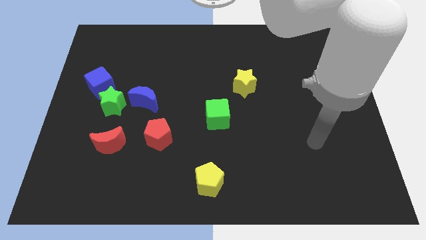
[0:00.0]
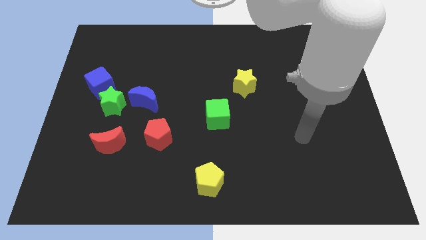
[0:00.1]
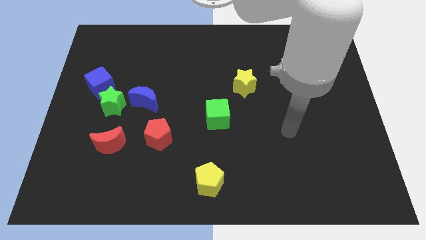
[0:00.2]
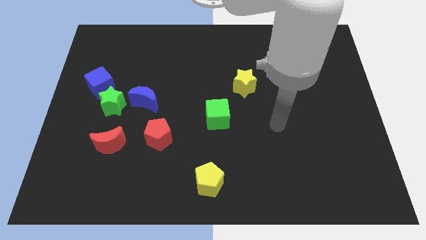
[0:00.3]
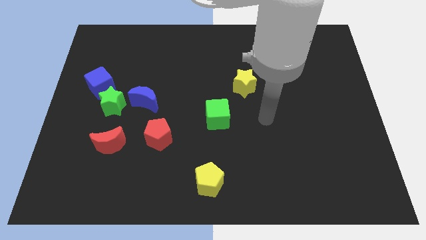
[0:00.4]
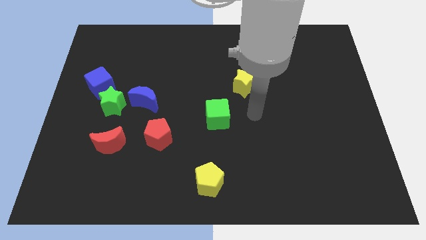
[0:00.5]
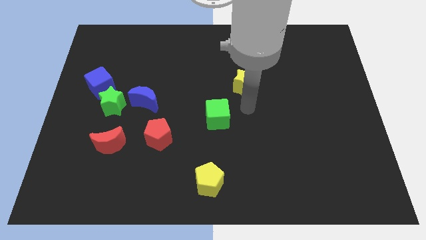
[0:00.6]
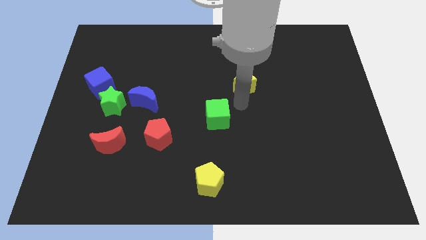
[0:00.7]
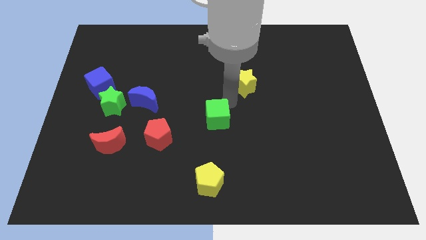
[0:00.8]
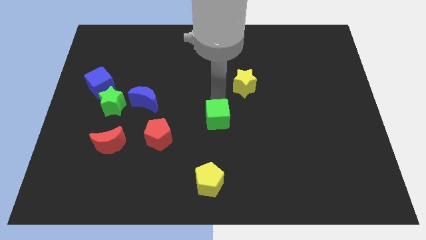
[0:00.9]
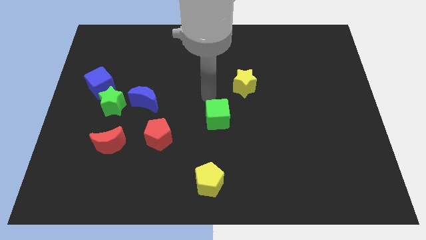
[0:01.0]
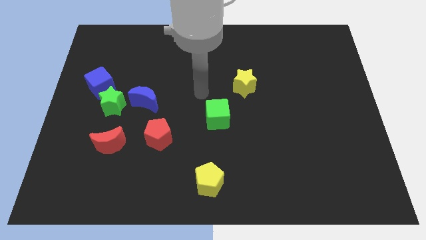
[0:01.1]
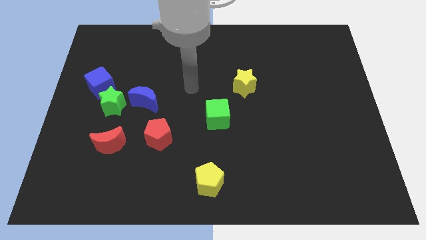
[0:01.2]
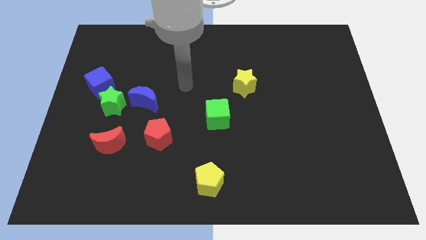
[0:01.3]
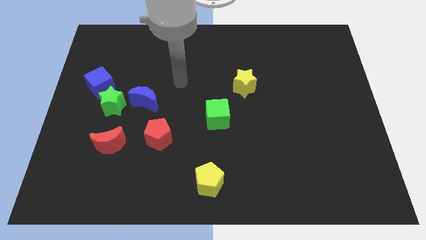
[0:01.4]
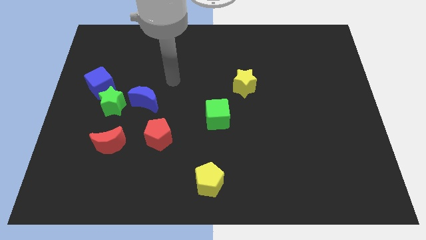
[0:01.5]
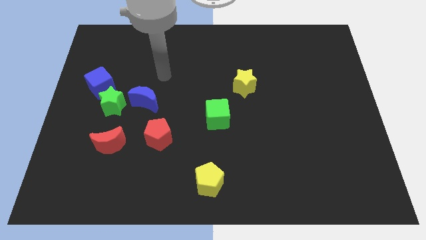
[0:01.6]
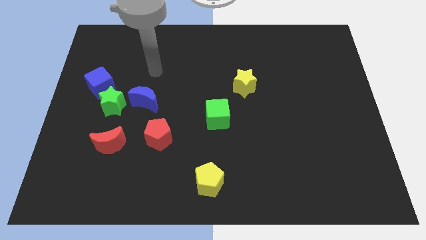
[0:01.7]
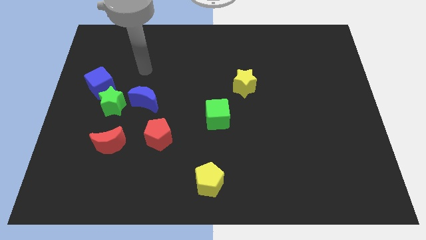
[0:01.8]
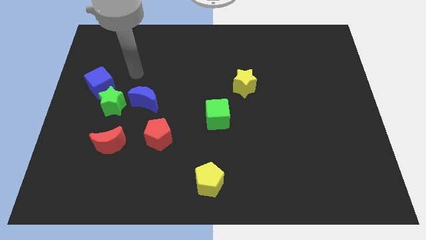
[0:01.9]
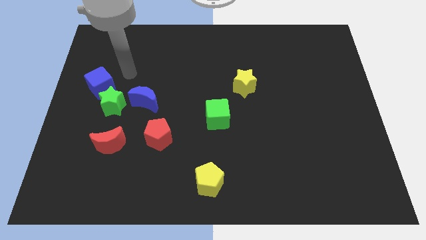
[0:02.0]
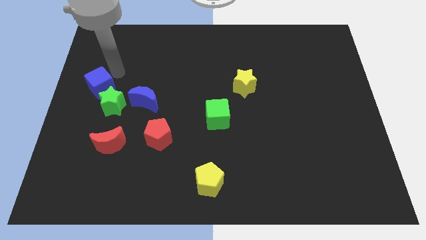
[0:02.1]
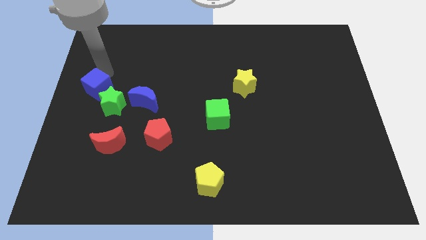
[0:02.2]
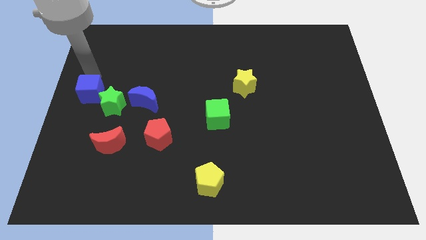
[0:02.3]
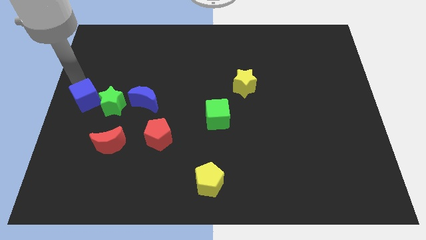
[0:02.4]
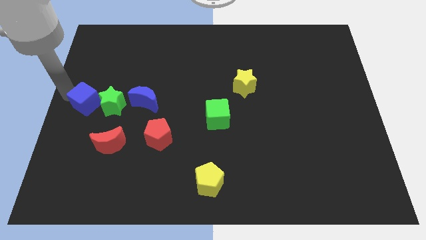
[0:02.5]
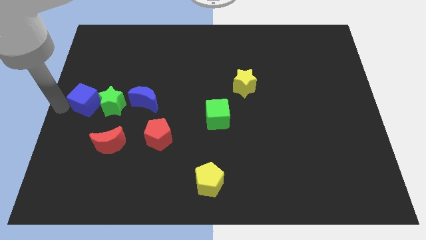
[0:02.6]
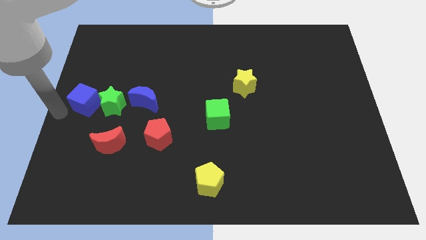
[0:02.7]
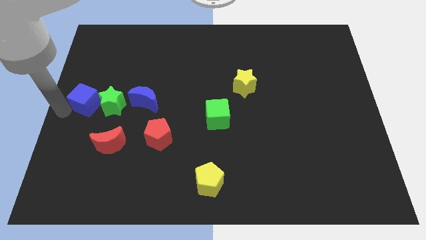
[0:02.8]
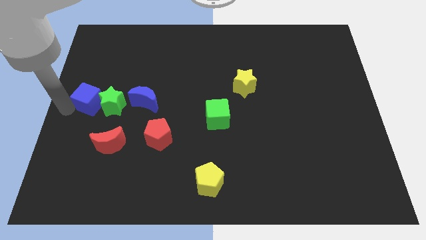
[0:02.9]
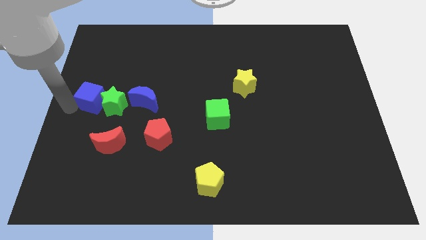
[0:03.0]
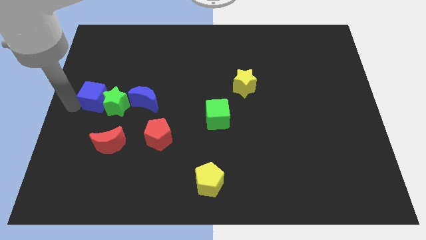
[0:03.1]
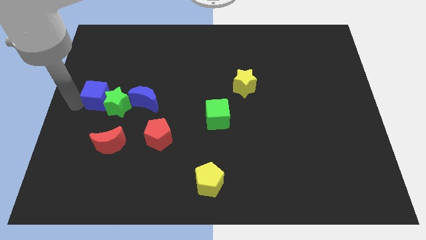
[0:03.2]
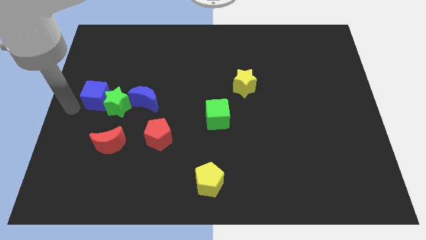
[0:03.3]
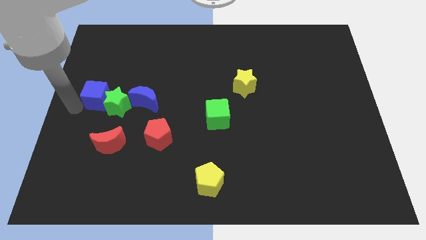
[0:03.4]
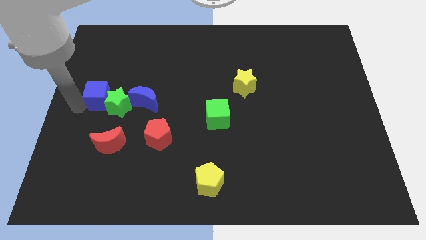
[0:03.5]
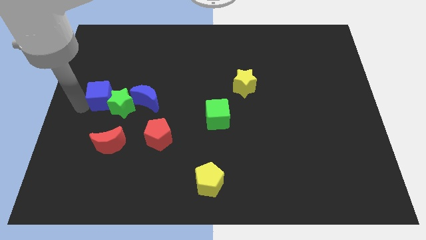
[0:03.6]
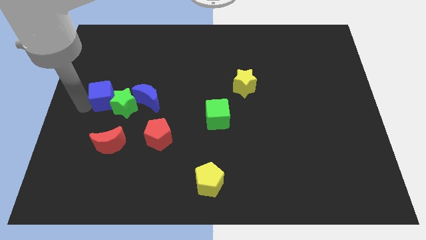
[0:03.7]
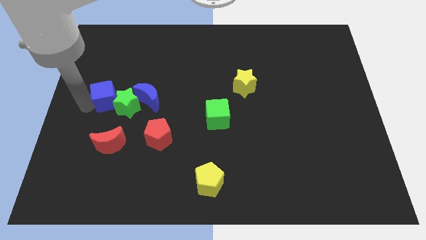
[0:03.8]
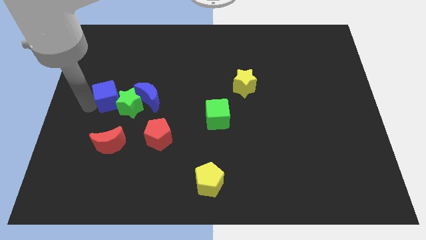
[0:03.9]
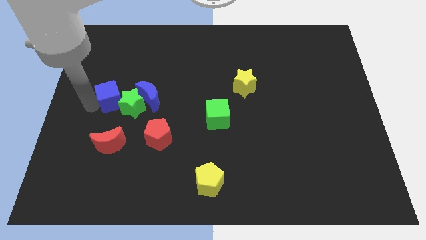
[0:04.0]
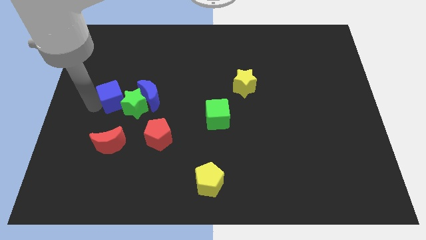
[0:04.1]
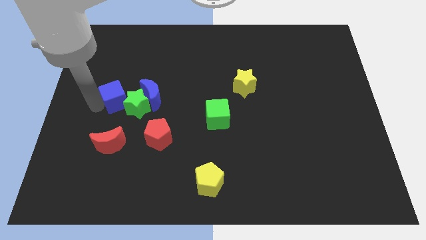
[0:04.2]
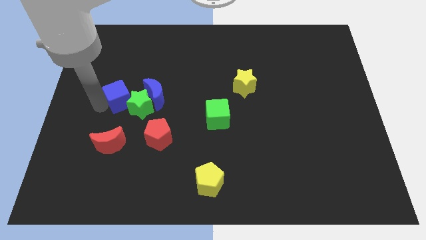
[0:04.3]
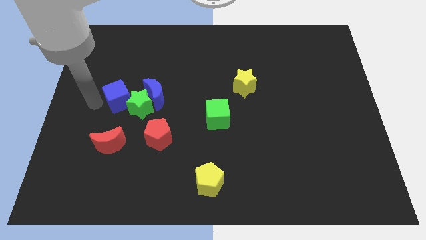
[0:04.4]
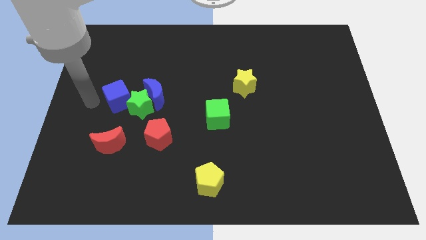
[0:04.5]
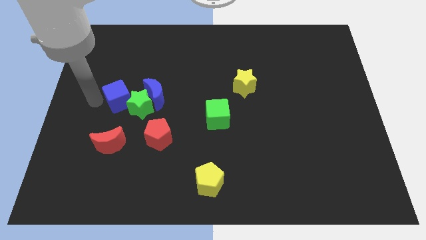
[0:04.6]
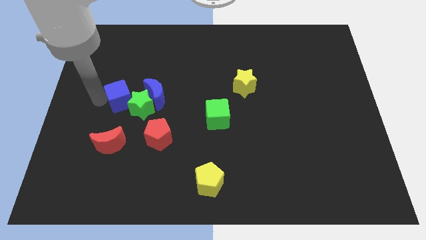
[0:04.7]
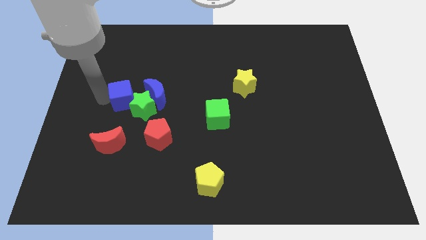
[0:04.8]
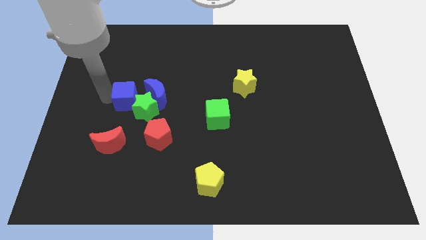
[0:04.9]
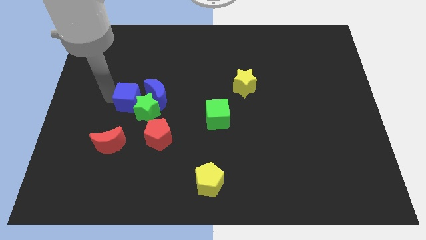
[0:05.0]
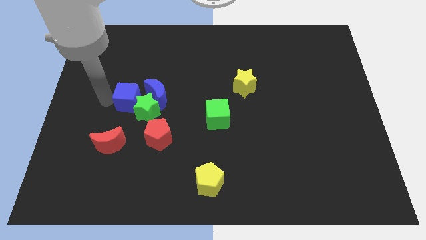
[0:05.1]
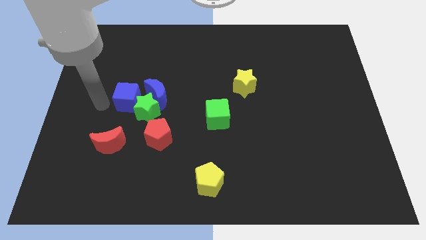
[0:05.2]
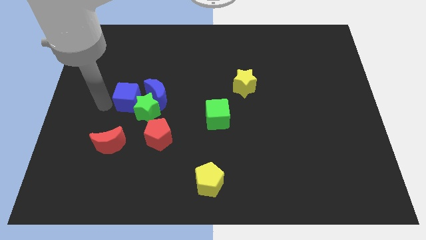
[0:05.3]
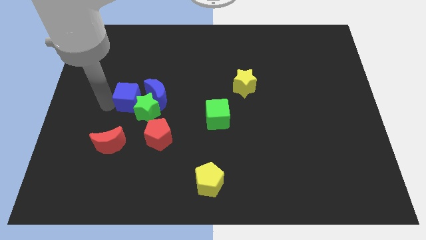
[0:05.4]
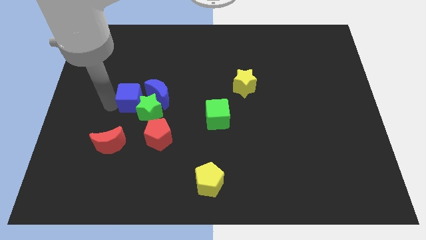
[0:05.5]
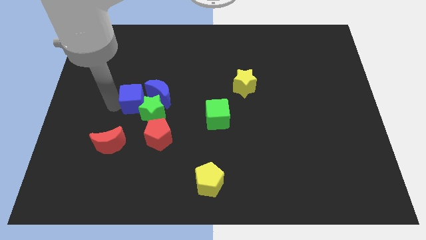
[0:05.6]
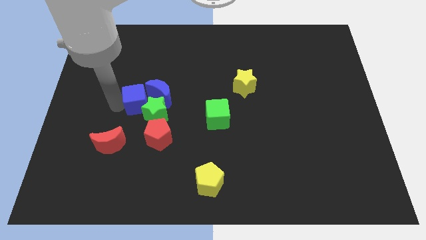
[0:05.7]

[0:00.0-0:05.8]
slide the blue cube close to the blue moon

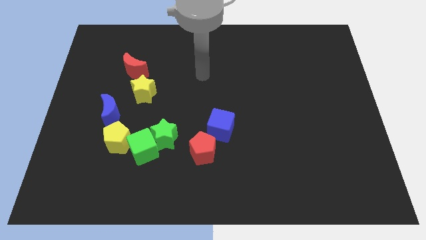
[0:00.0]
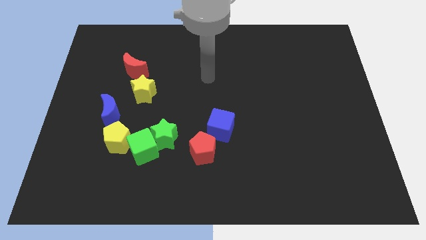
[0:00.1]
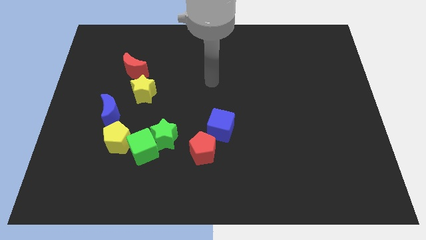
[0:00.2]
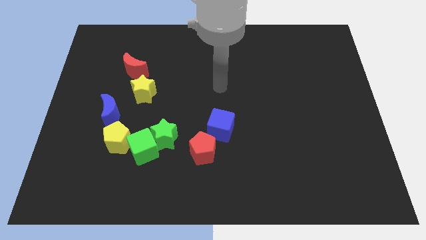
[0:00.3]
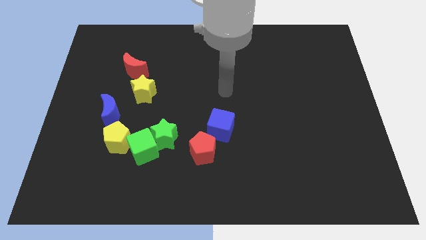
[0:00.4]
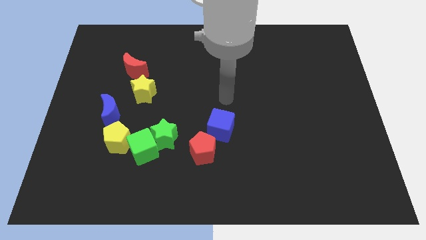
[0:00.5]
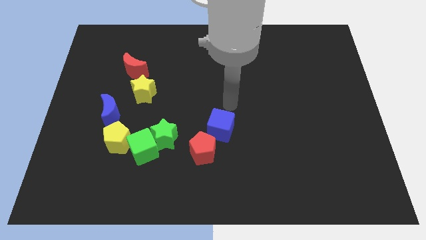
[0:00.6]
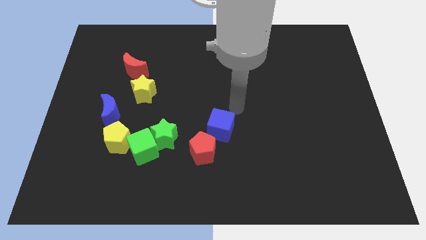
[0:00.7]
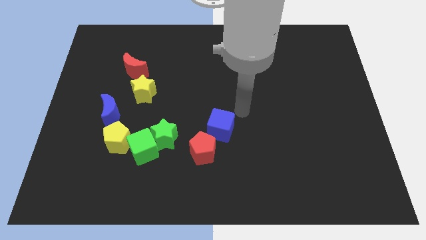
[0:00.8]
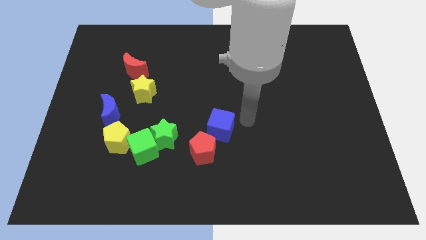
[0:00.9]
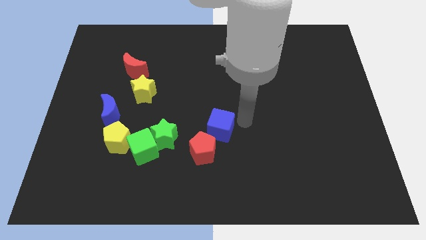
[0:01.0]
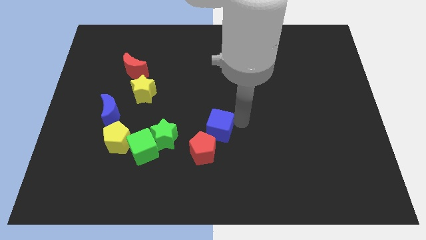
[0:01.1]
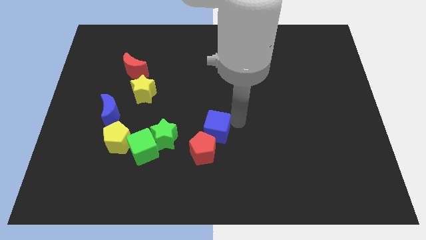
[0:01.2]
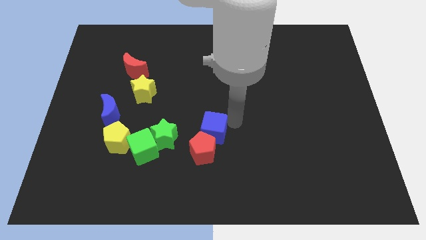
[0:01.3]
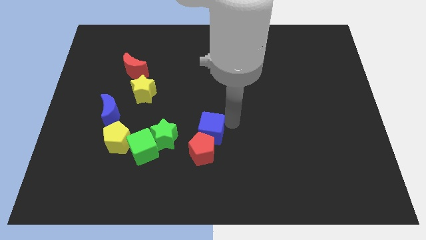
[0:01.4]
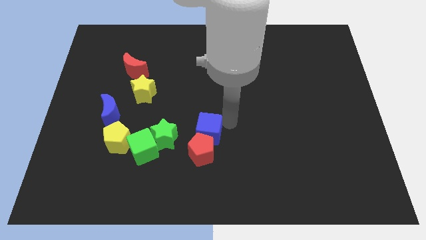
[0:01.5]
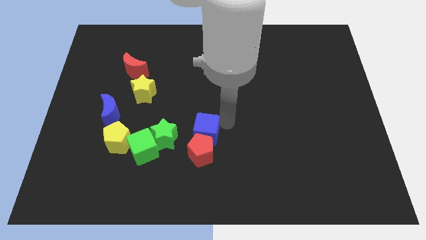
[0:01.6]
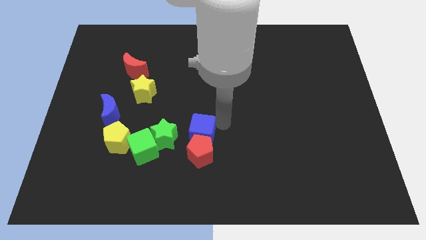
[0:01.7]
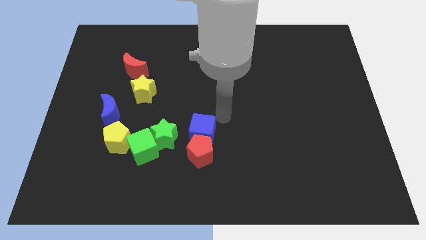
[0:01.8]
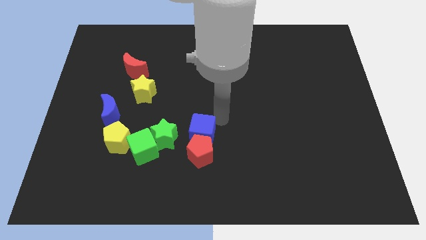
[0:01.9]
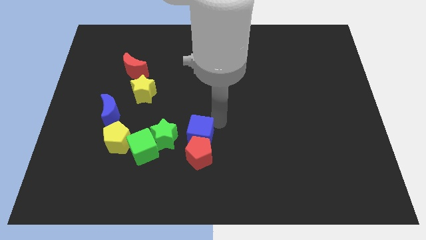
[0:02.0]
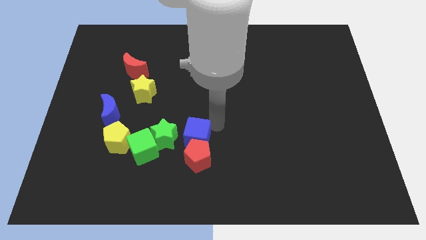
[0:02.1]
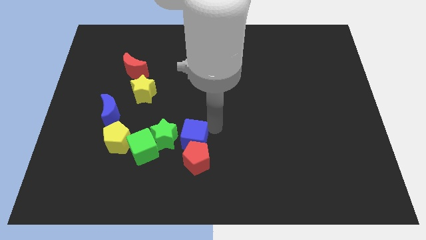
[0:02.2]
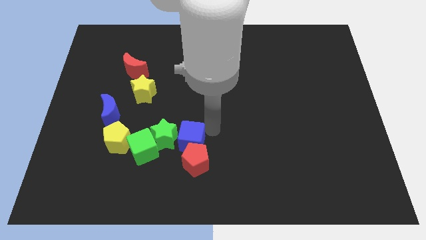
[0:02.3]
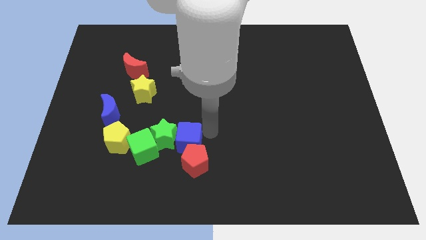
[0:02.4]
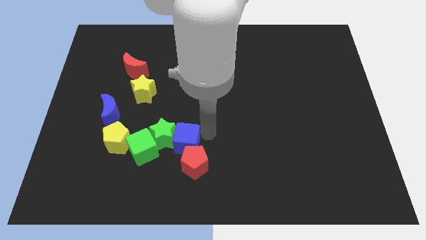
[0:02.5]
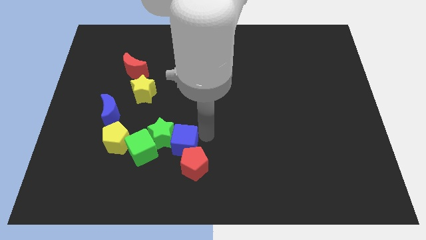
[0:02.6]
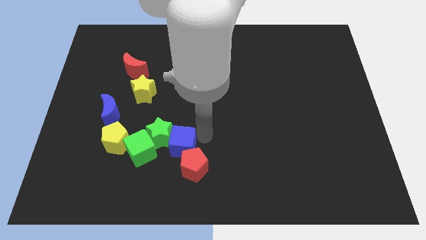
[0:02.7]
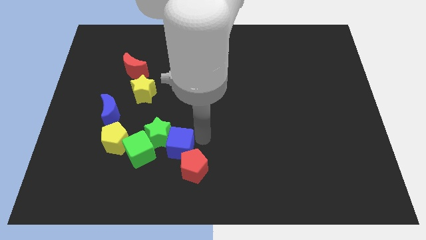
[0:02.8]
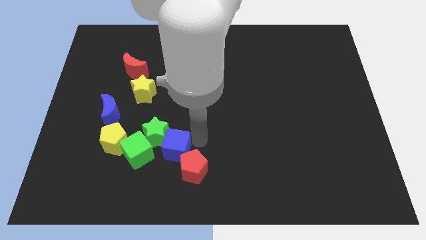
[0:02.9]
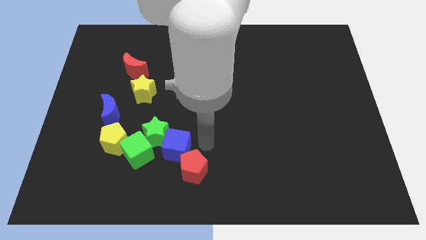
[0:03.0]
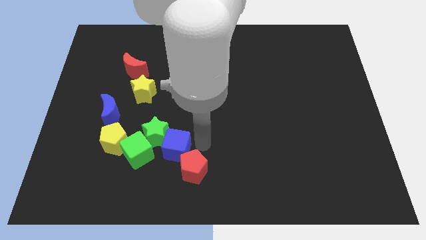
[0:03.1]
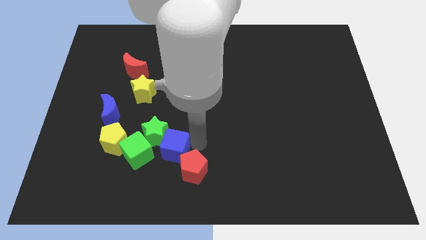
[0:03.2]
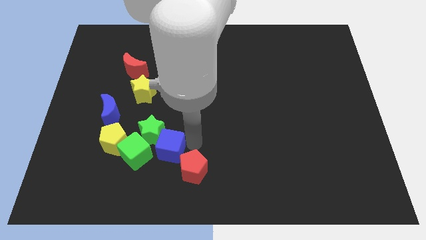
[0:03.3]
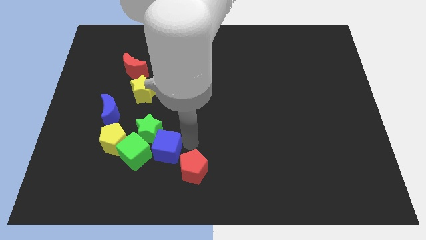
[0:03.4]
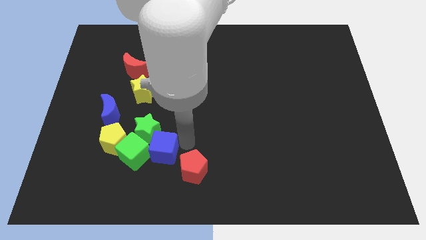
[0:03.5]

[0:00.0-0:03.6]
put the blue cube close to the green cube
